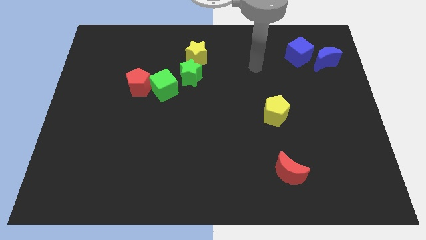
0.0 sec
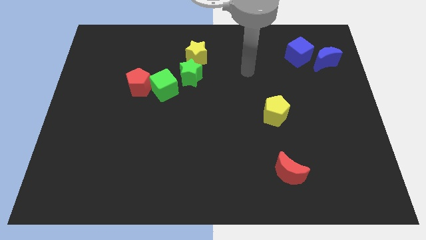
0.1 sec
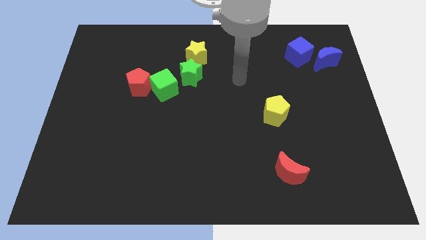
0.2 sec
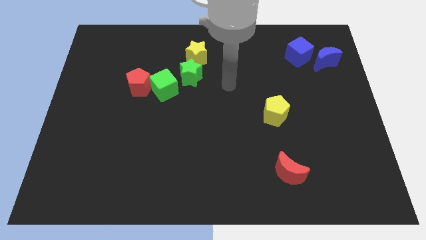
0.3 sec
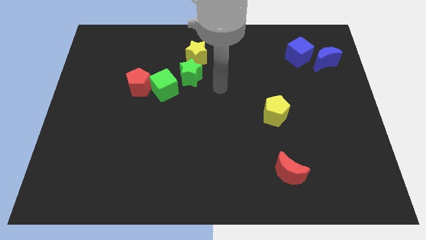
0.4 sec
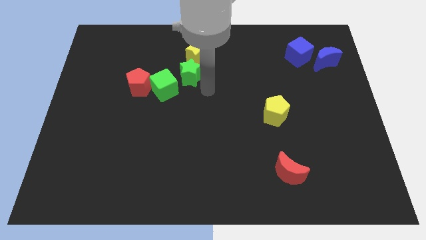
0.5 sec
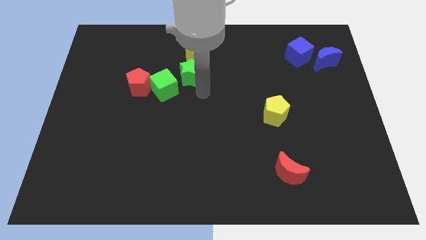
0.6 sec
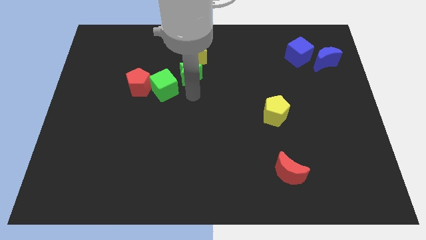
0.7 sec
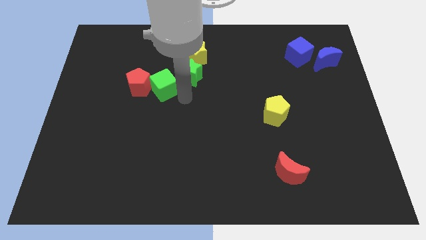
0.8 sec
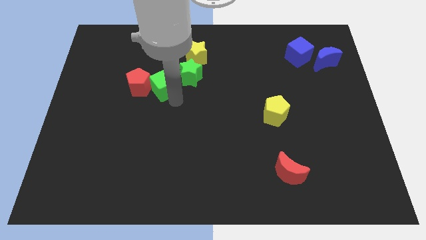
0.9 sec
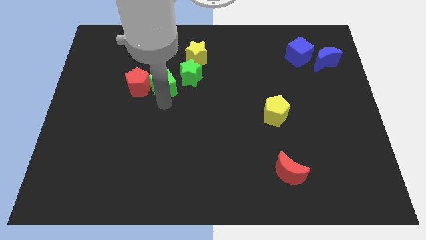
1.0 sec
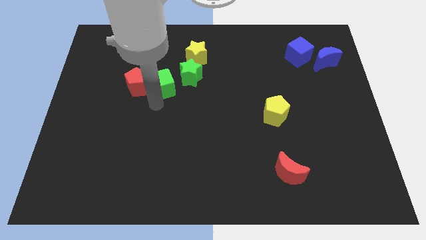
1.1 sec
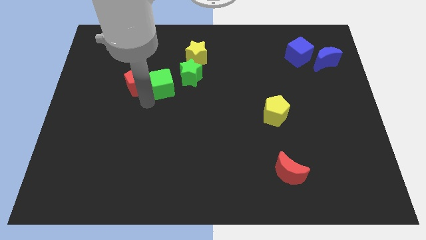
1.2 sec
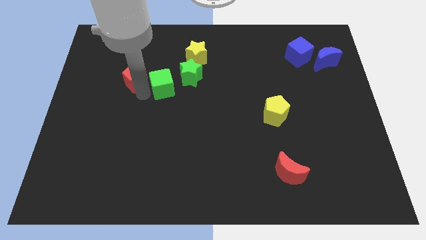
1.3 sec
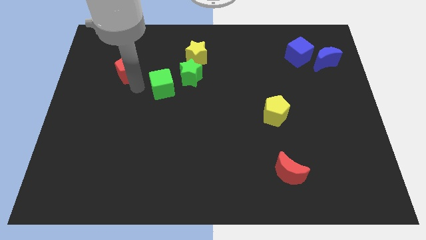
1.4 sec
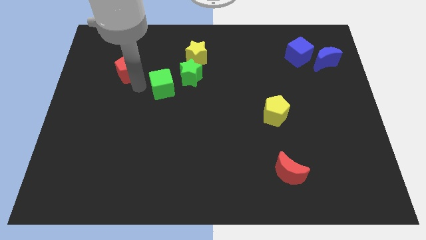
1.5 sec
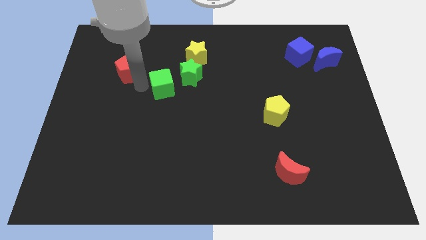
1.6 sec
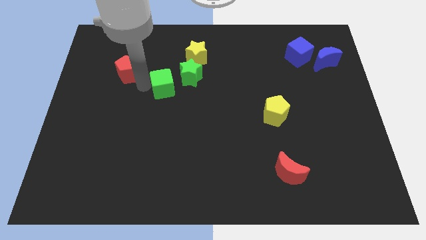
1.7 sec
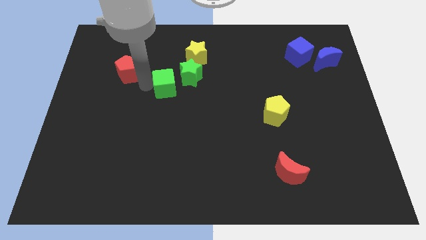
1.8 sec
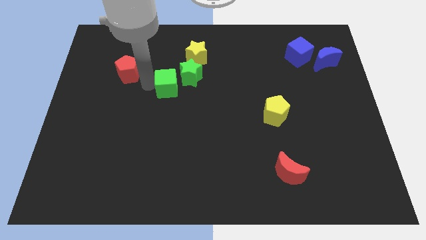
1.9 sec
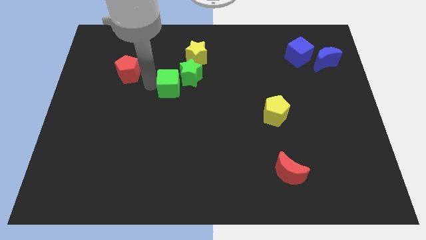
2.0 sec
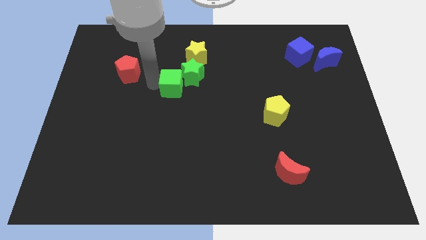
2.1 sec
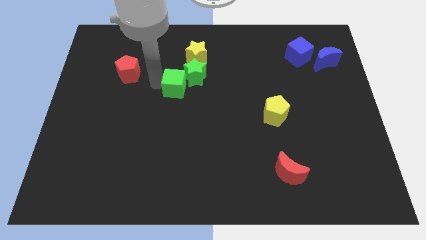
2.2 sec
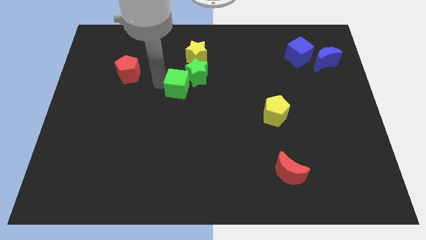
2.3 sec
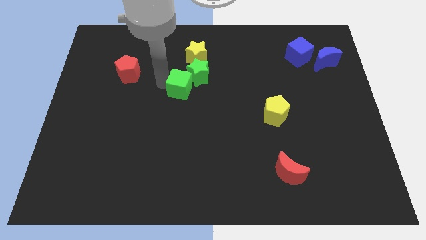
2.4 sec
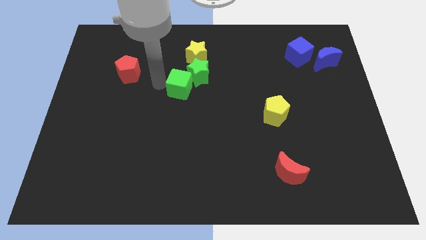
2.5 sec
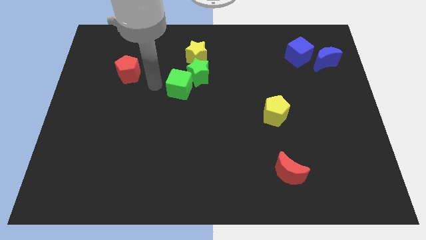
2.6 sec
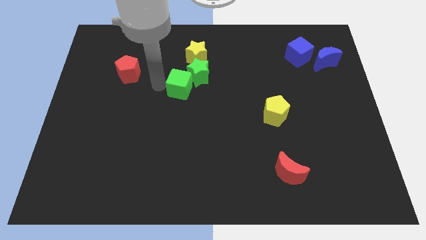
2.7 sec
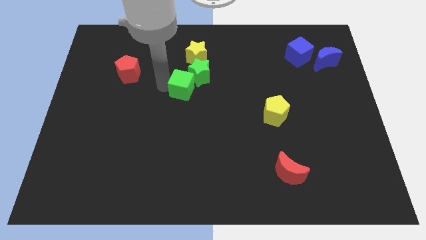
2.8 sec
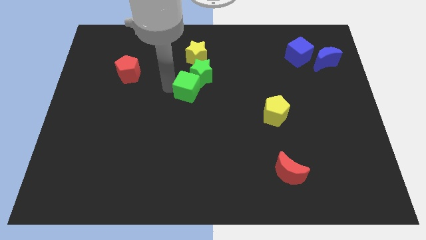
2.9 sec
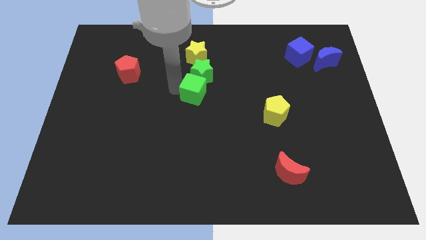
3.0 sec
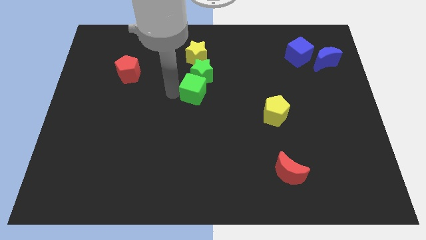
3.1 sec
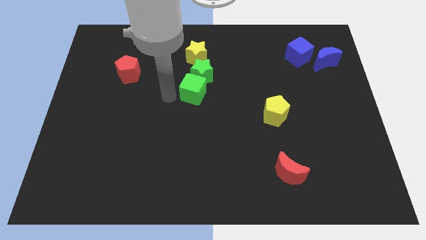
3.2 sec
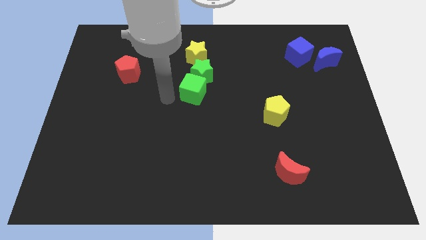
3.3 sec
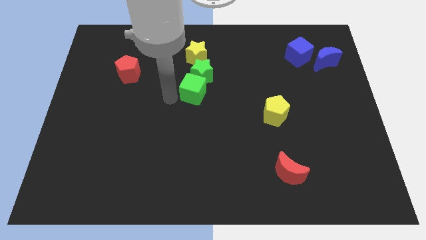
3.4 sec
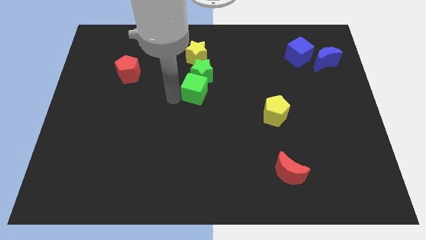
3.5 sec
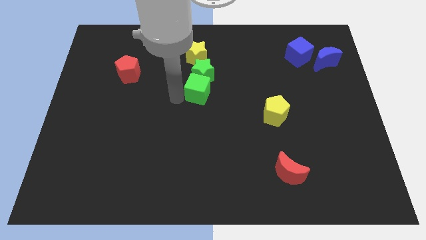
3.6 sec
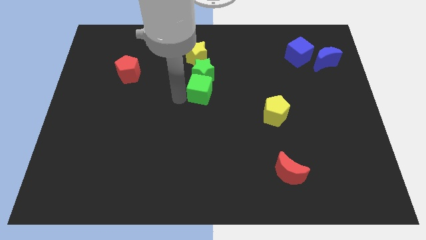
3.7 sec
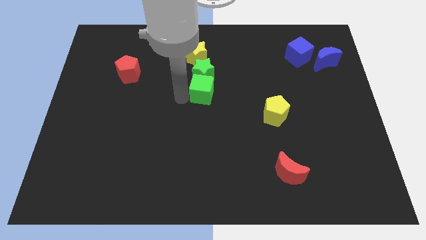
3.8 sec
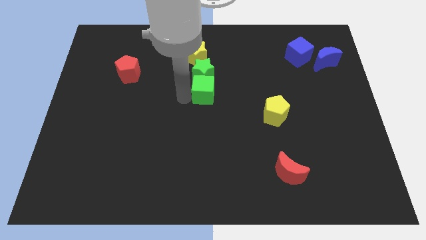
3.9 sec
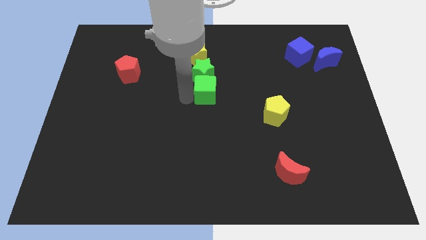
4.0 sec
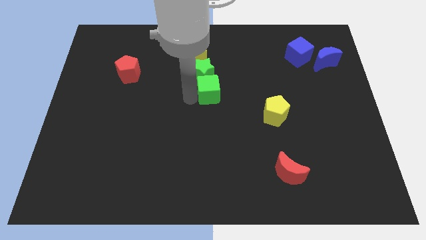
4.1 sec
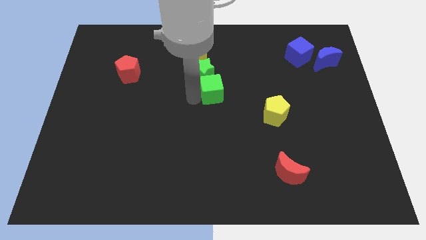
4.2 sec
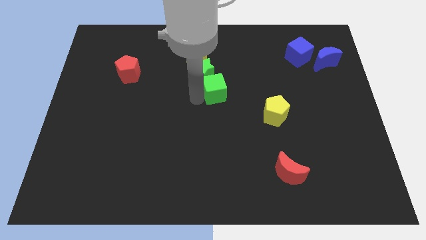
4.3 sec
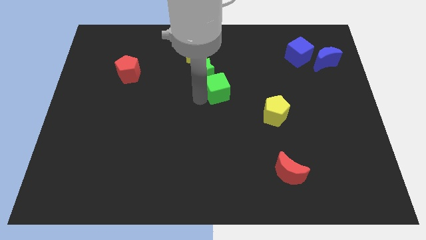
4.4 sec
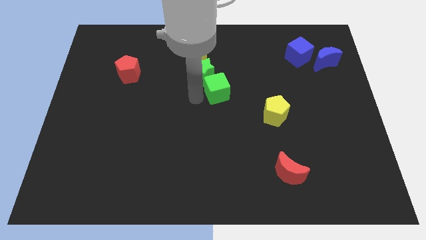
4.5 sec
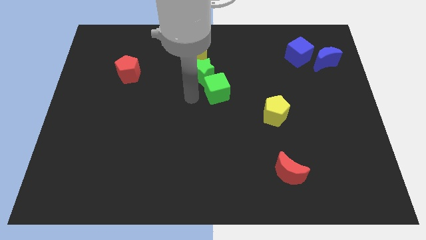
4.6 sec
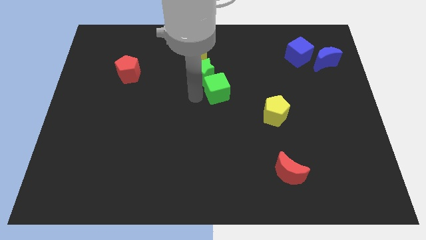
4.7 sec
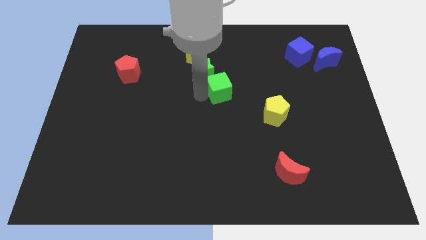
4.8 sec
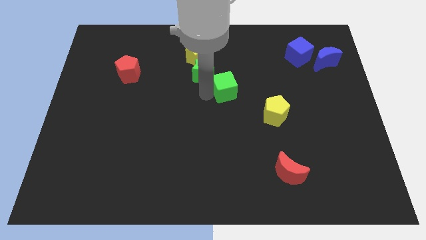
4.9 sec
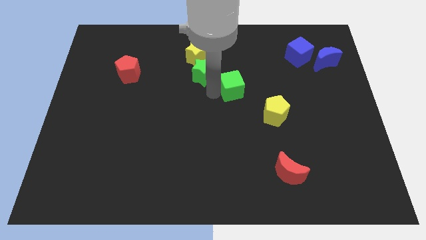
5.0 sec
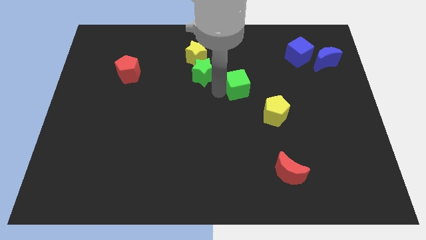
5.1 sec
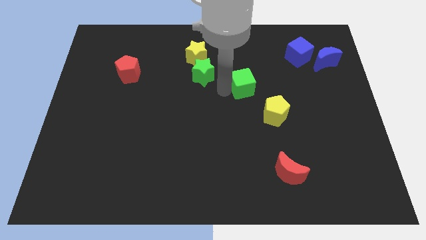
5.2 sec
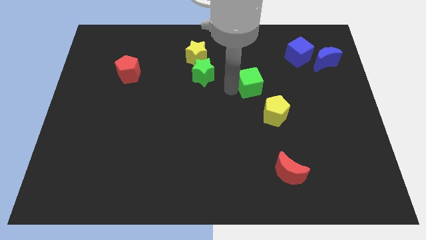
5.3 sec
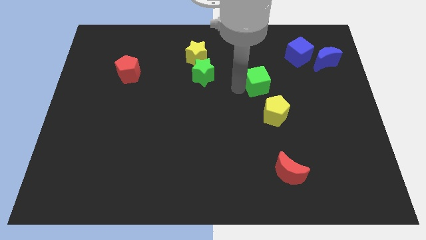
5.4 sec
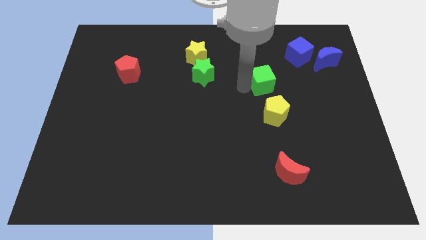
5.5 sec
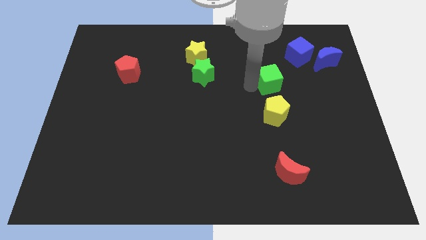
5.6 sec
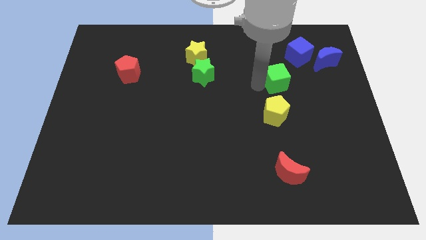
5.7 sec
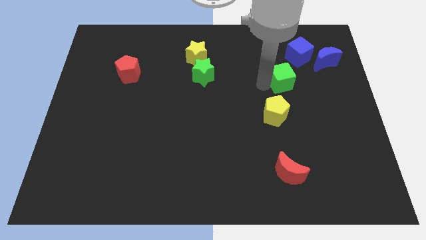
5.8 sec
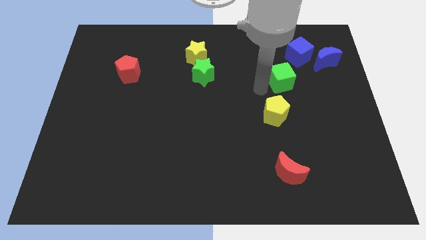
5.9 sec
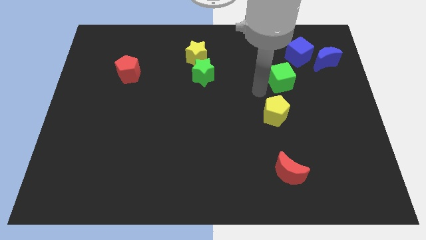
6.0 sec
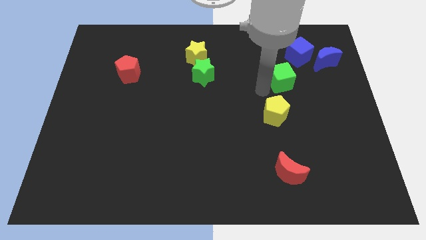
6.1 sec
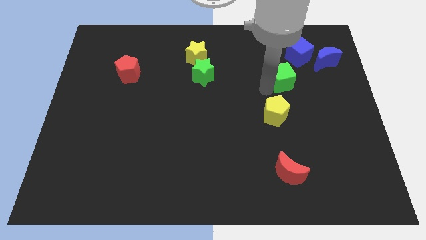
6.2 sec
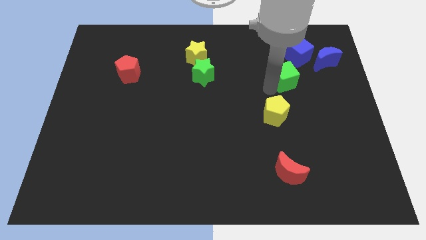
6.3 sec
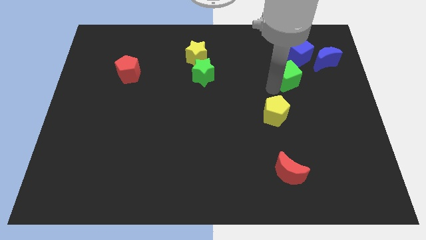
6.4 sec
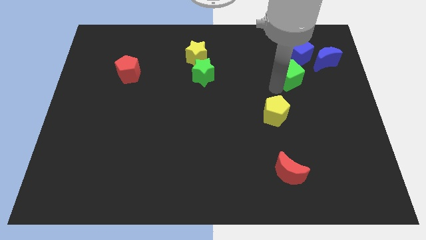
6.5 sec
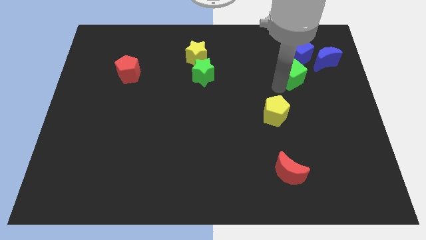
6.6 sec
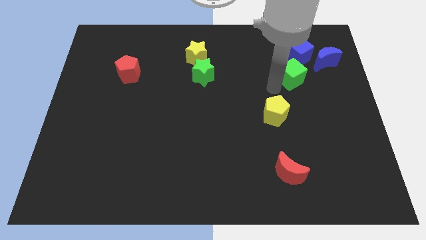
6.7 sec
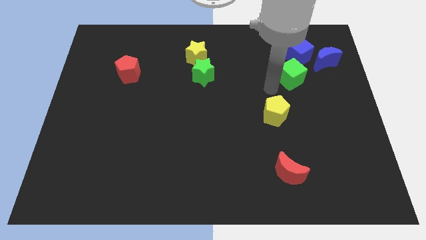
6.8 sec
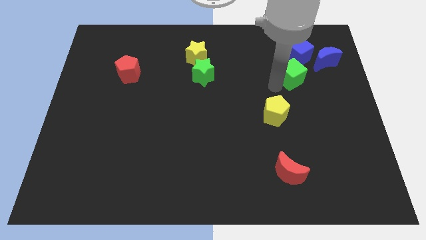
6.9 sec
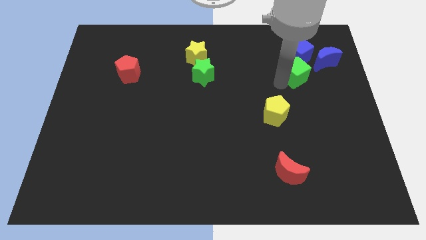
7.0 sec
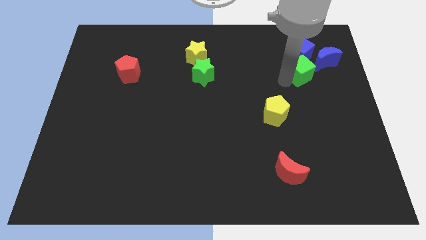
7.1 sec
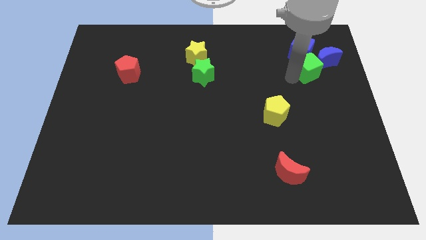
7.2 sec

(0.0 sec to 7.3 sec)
slide the green cube towards the blue moon

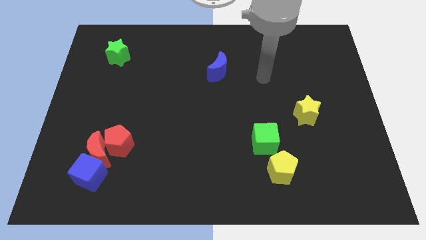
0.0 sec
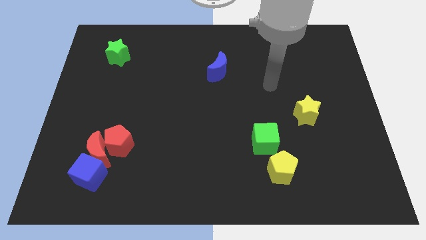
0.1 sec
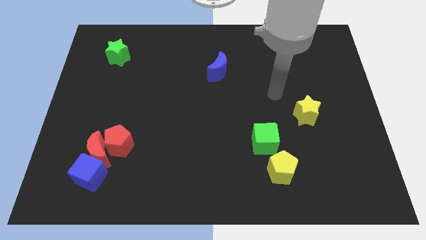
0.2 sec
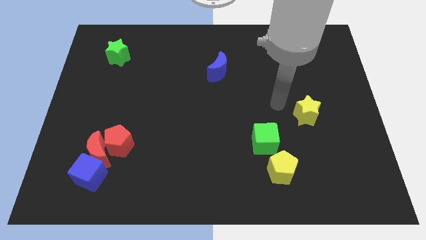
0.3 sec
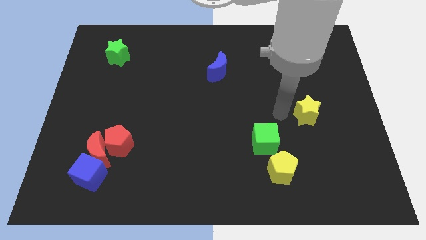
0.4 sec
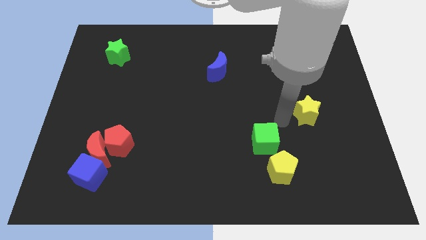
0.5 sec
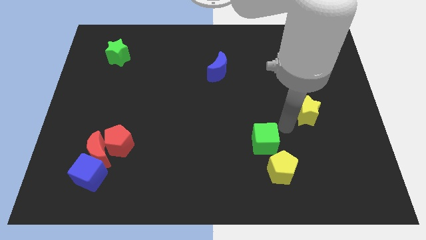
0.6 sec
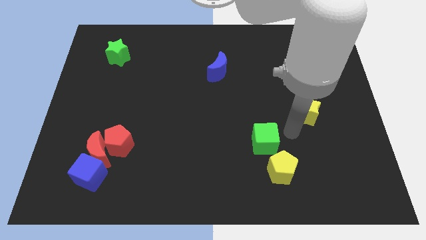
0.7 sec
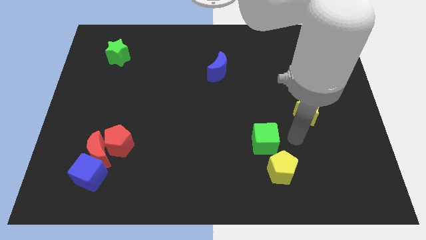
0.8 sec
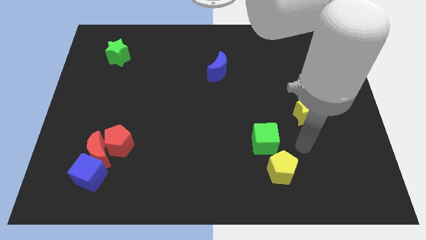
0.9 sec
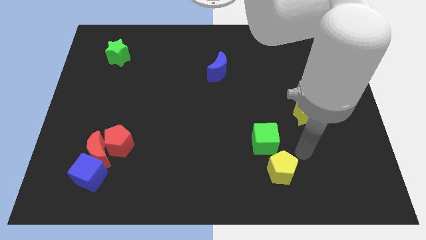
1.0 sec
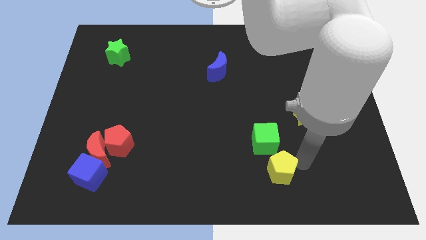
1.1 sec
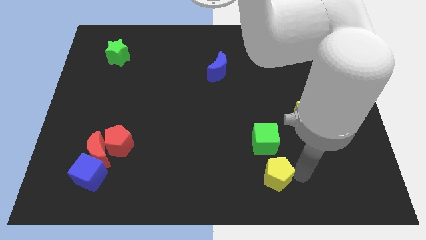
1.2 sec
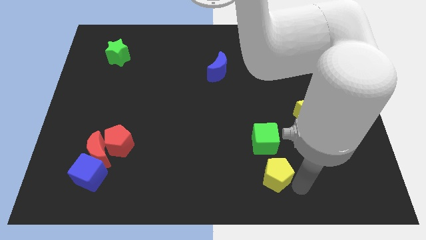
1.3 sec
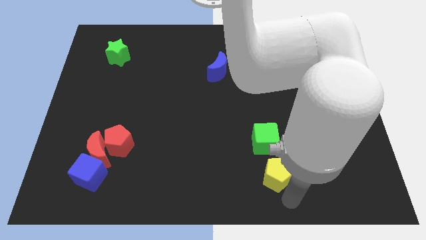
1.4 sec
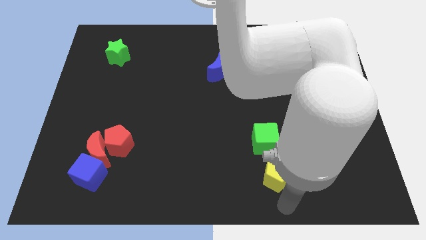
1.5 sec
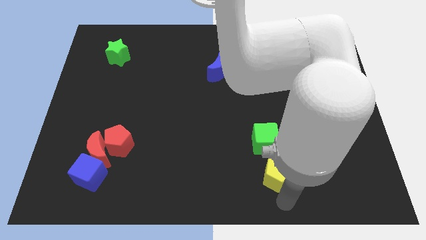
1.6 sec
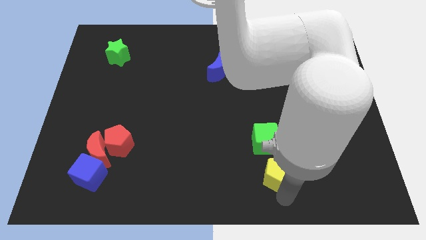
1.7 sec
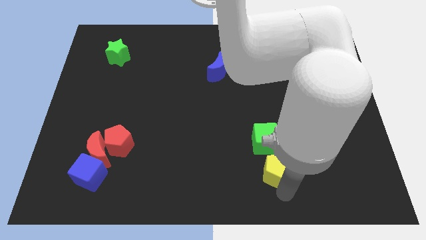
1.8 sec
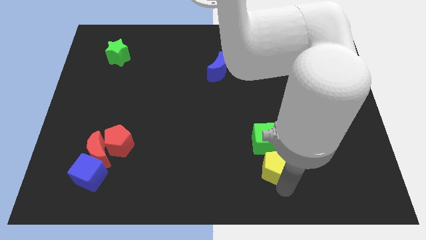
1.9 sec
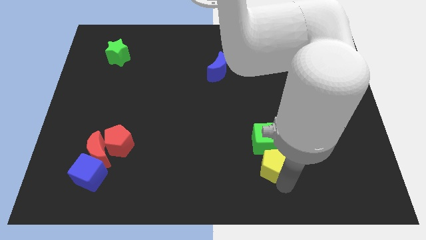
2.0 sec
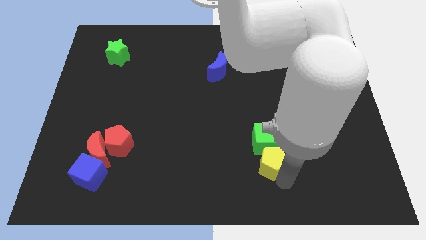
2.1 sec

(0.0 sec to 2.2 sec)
put the yellow pentagon towards the green cube
